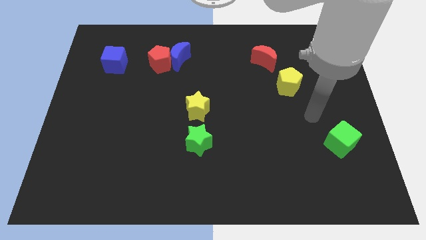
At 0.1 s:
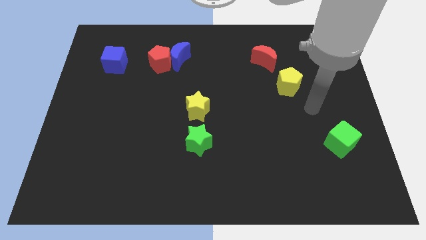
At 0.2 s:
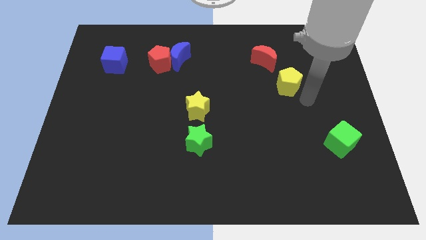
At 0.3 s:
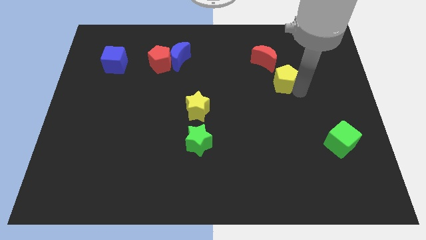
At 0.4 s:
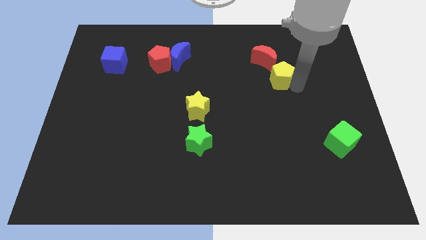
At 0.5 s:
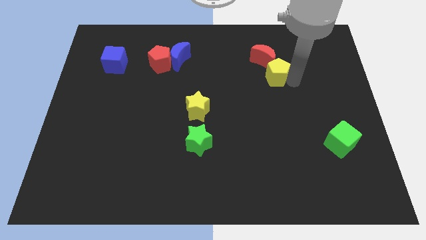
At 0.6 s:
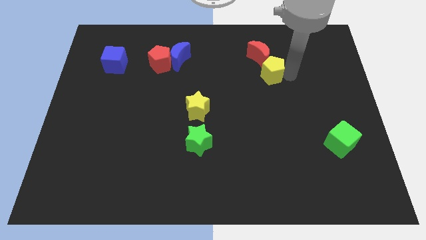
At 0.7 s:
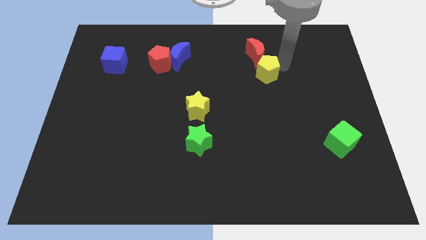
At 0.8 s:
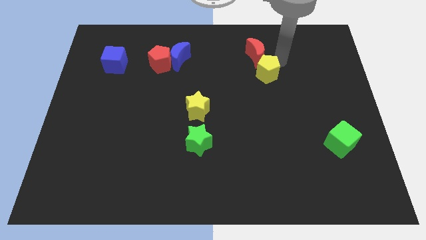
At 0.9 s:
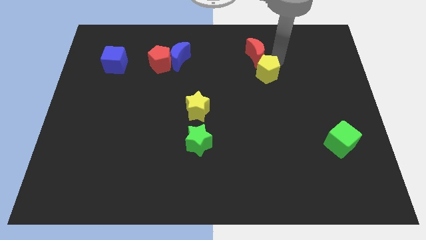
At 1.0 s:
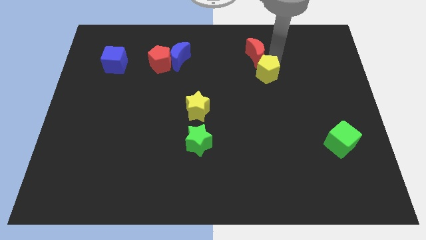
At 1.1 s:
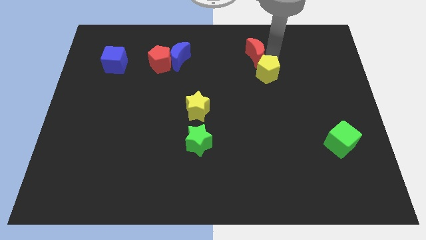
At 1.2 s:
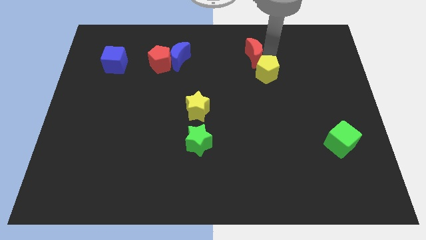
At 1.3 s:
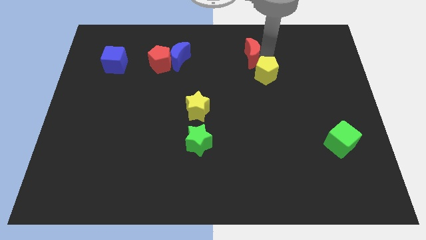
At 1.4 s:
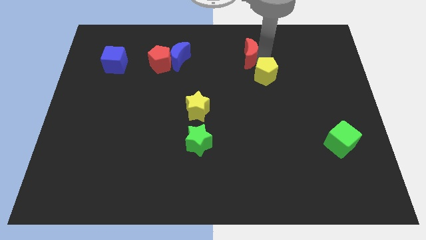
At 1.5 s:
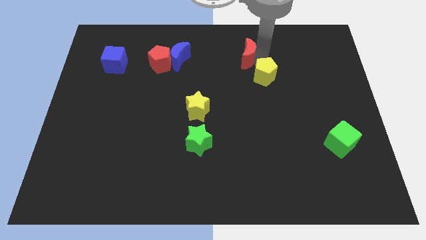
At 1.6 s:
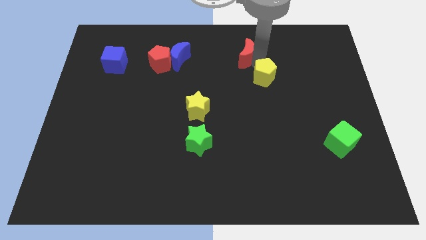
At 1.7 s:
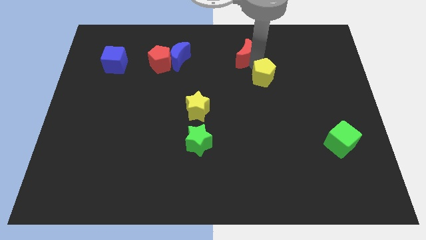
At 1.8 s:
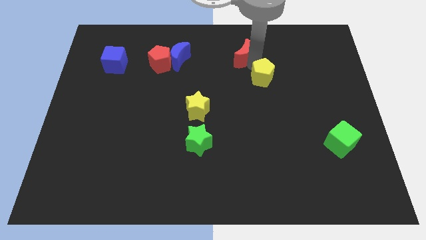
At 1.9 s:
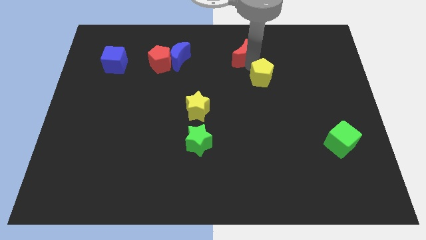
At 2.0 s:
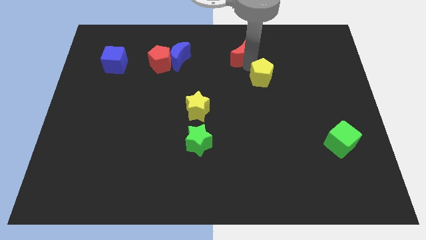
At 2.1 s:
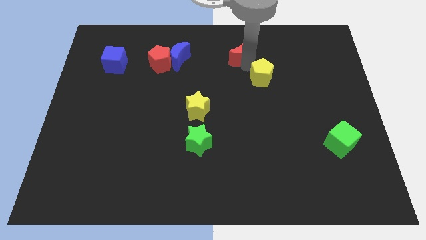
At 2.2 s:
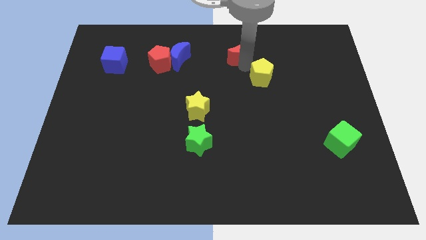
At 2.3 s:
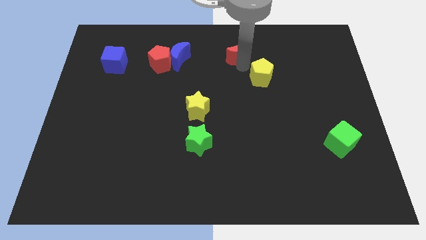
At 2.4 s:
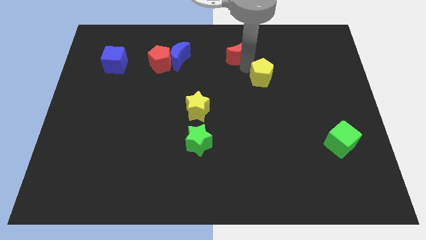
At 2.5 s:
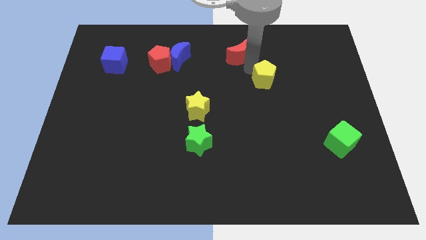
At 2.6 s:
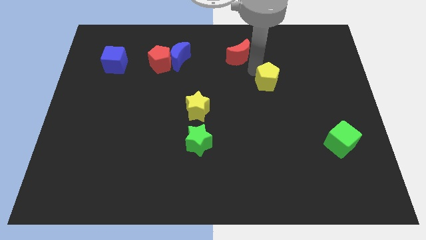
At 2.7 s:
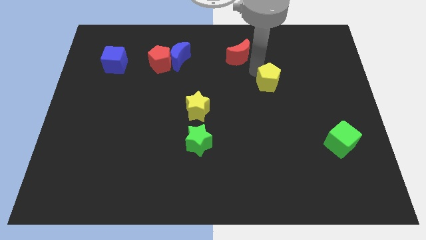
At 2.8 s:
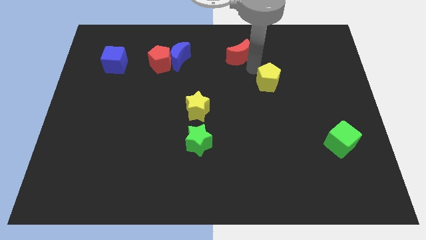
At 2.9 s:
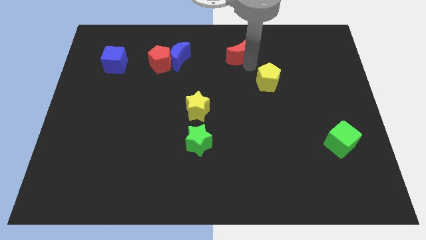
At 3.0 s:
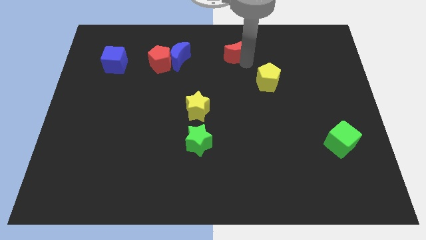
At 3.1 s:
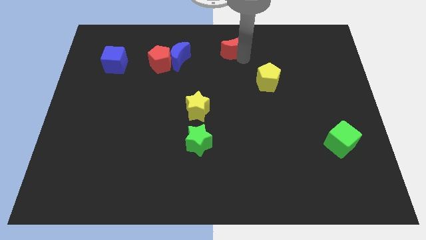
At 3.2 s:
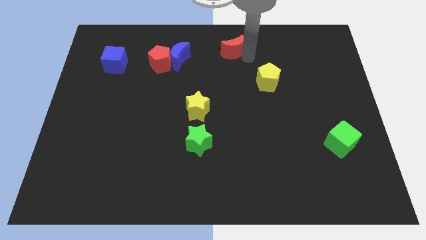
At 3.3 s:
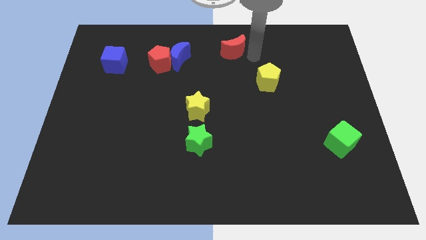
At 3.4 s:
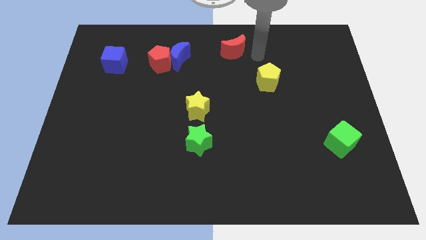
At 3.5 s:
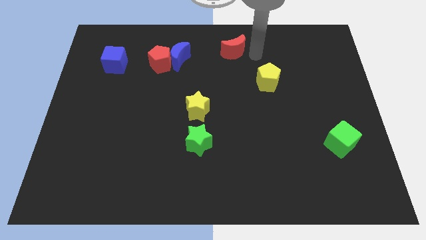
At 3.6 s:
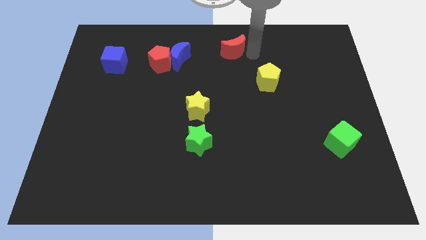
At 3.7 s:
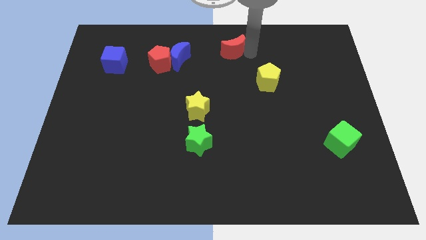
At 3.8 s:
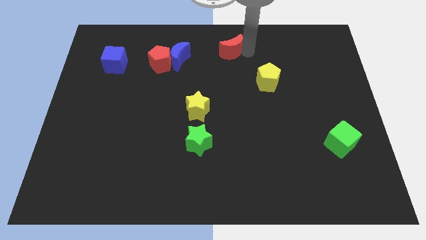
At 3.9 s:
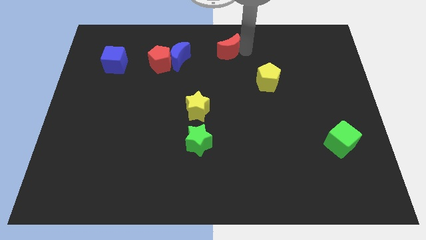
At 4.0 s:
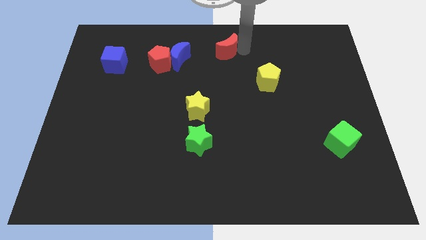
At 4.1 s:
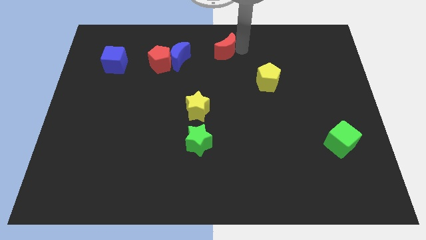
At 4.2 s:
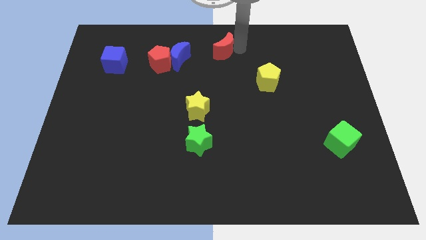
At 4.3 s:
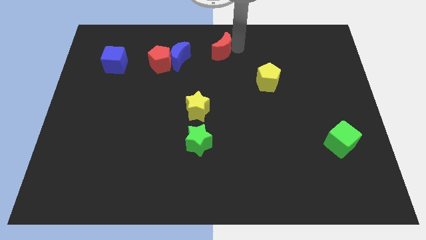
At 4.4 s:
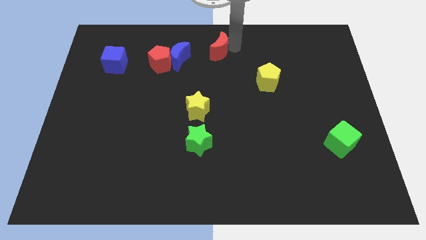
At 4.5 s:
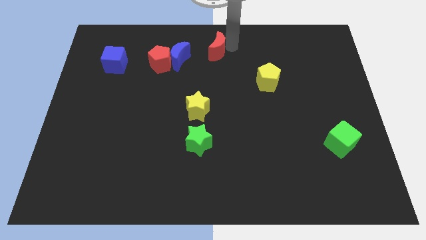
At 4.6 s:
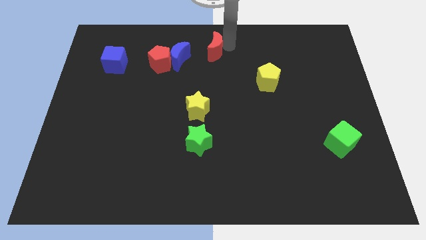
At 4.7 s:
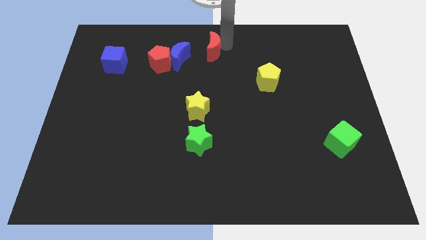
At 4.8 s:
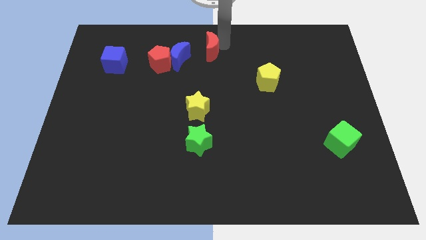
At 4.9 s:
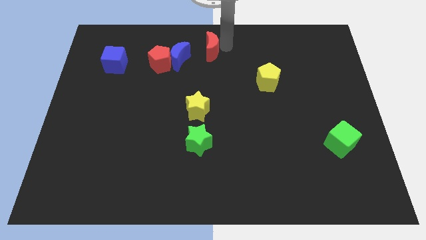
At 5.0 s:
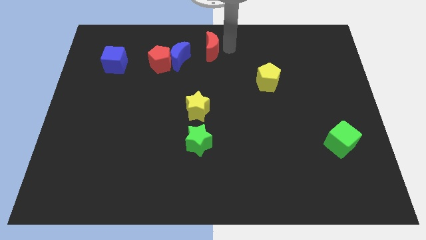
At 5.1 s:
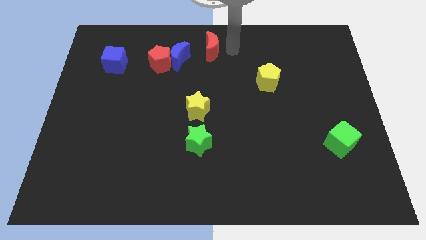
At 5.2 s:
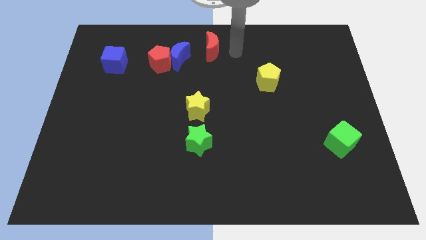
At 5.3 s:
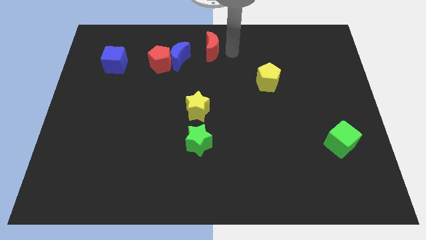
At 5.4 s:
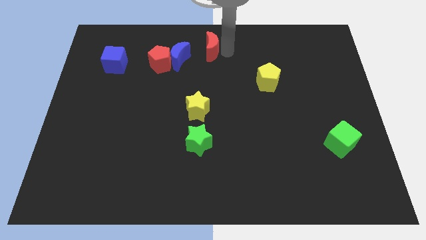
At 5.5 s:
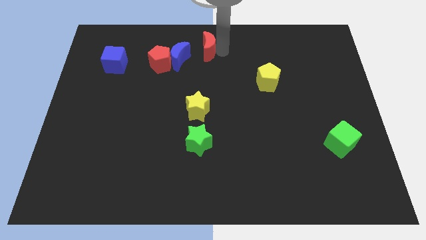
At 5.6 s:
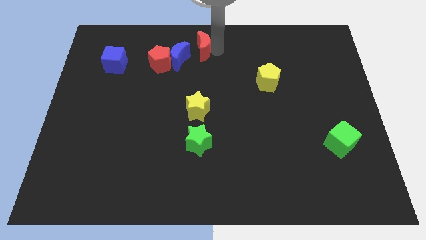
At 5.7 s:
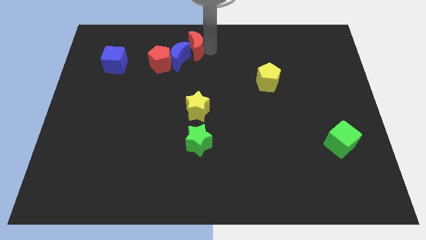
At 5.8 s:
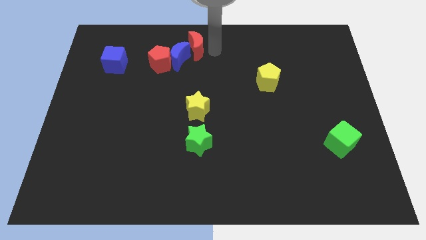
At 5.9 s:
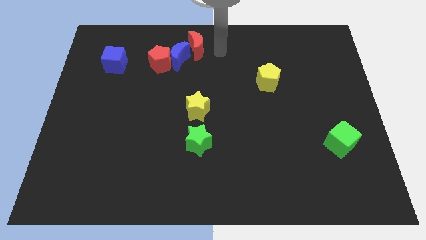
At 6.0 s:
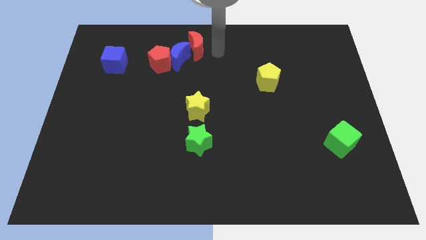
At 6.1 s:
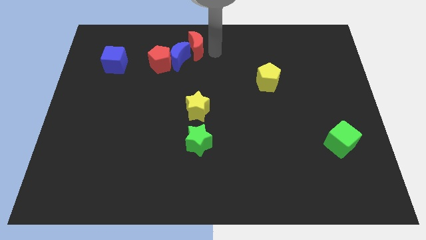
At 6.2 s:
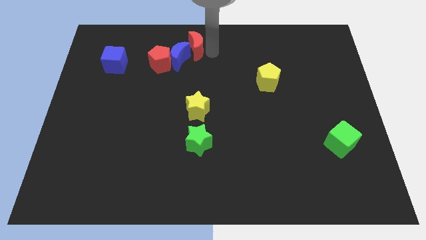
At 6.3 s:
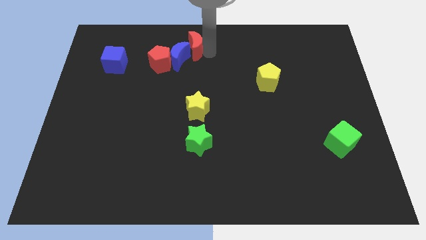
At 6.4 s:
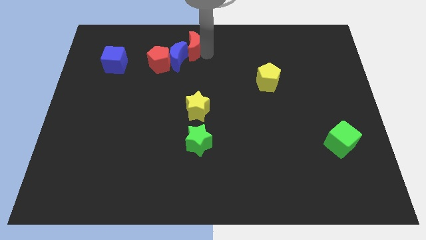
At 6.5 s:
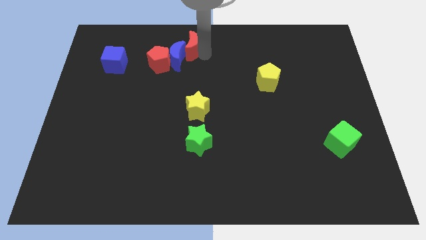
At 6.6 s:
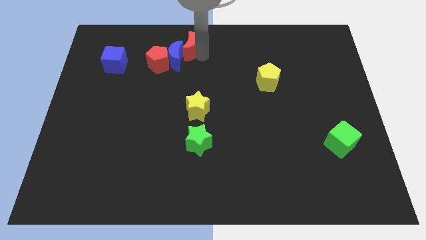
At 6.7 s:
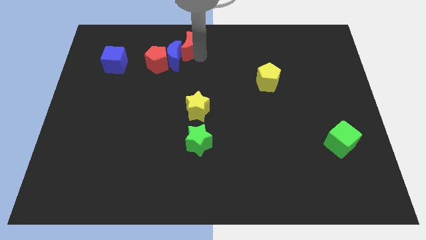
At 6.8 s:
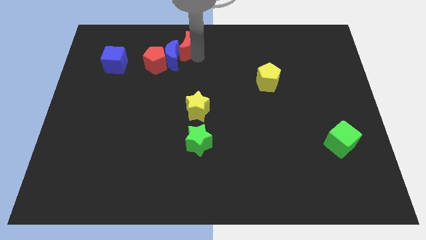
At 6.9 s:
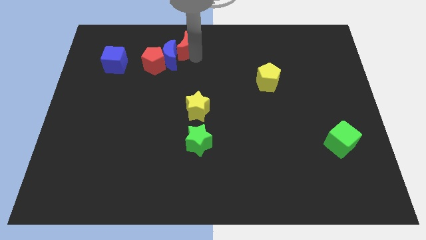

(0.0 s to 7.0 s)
push the red moon to the left

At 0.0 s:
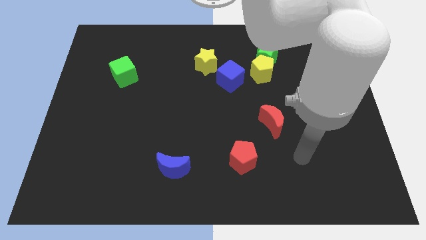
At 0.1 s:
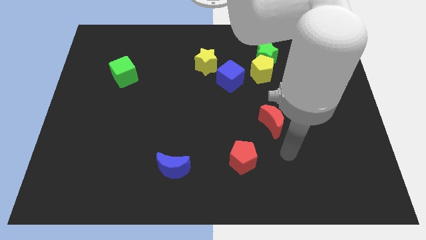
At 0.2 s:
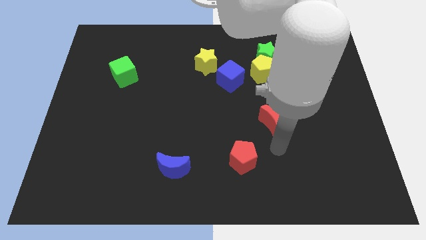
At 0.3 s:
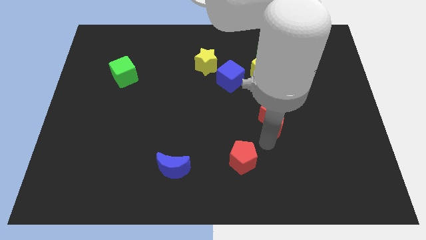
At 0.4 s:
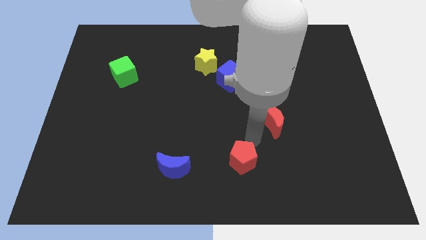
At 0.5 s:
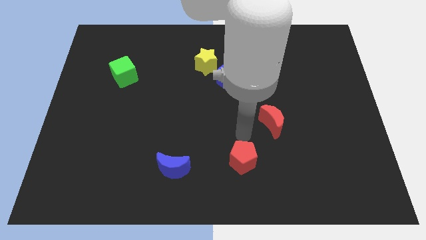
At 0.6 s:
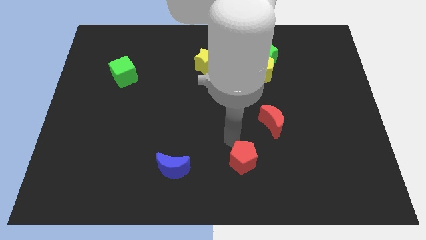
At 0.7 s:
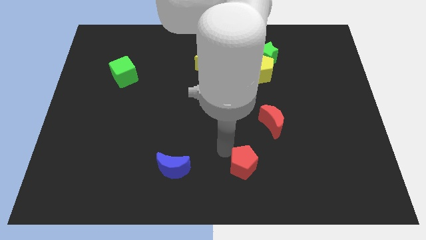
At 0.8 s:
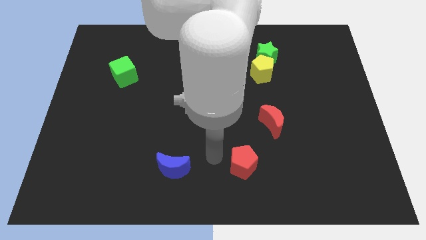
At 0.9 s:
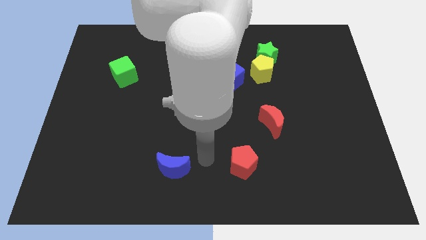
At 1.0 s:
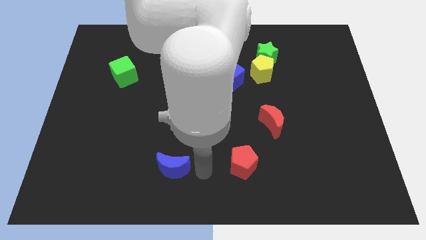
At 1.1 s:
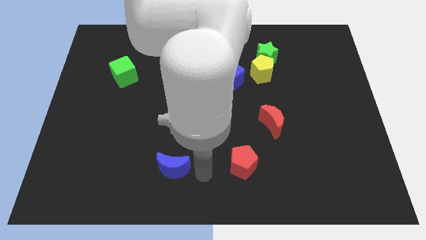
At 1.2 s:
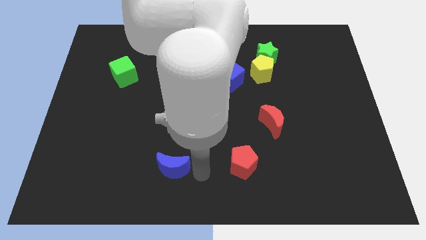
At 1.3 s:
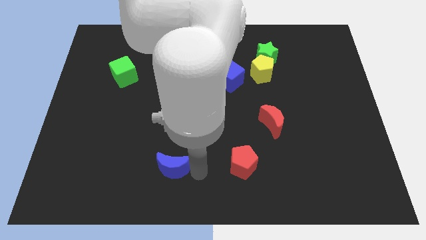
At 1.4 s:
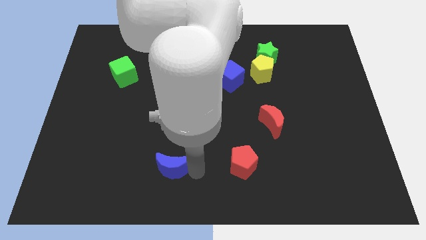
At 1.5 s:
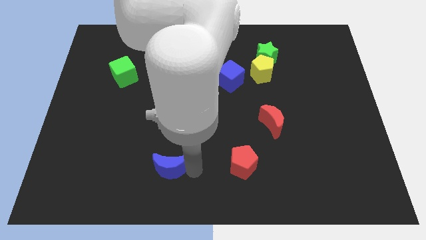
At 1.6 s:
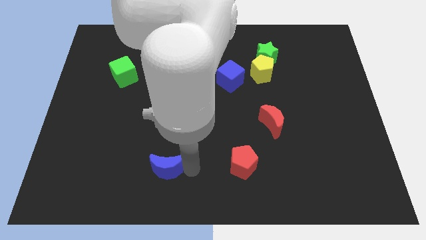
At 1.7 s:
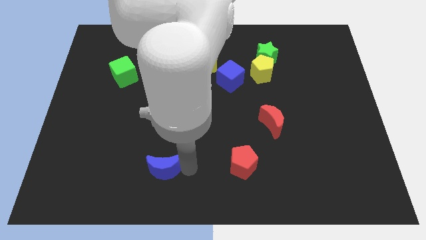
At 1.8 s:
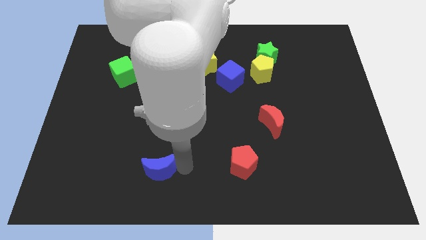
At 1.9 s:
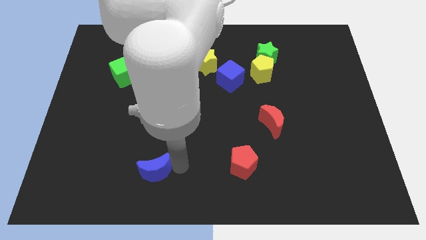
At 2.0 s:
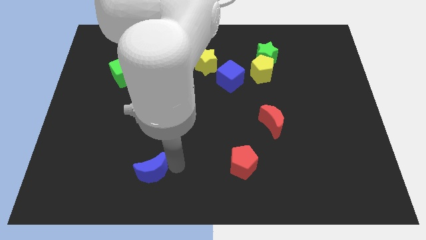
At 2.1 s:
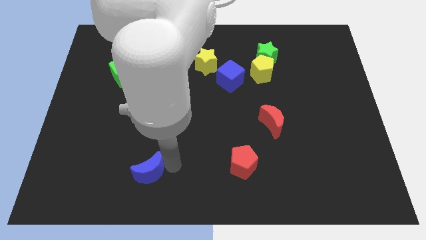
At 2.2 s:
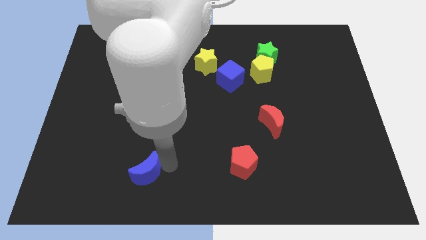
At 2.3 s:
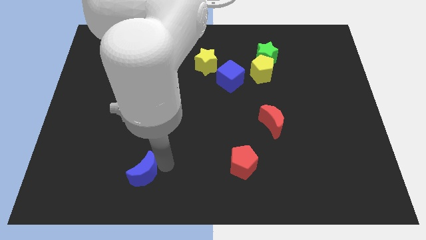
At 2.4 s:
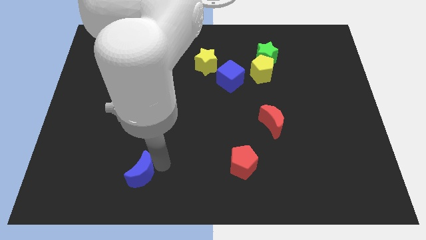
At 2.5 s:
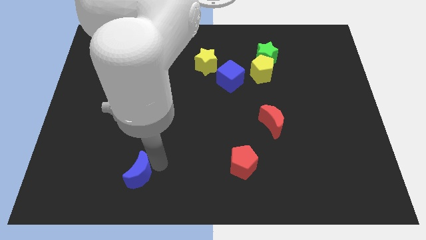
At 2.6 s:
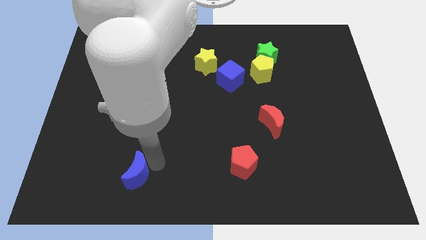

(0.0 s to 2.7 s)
slide the blue moon left a little
